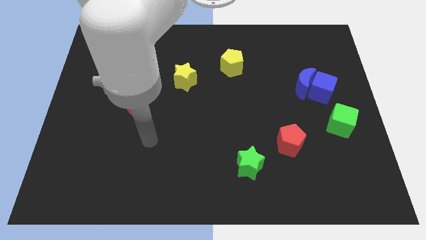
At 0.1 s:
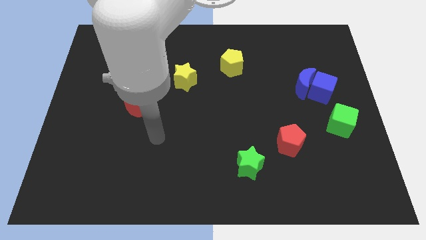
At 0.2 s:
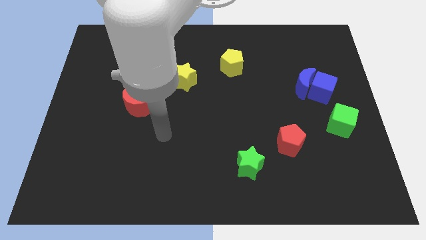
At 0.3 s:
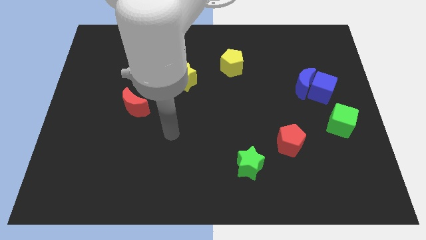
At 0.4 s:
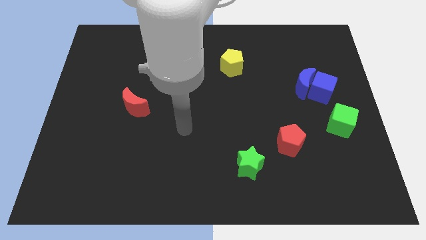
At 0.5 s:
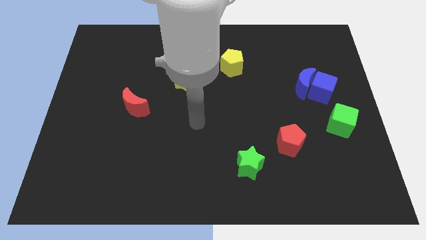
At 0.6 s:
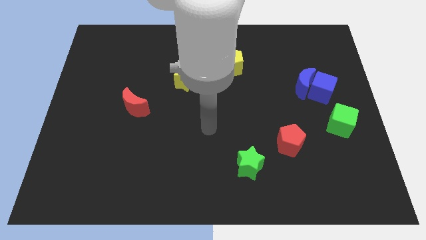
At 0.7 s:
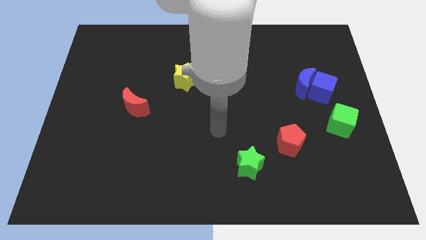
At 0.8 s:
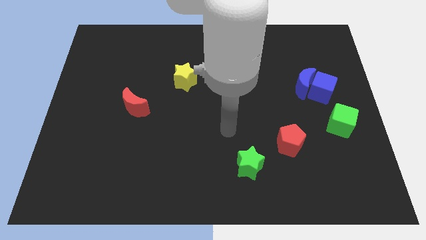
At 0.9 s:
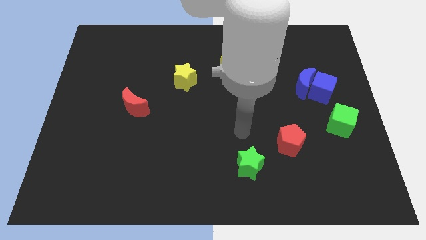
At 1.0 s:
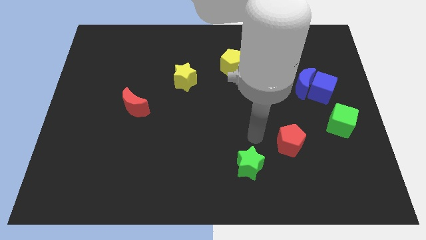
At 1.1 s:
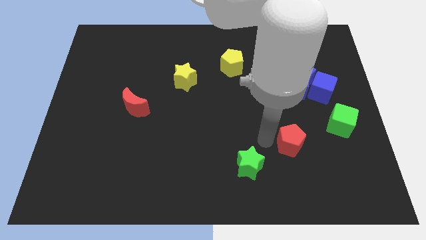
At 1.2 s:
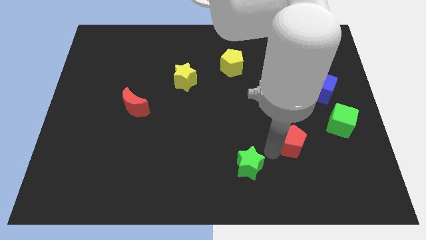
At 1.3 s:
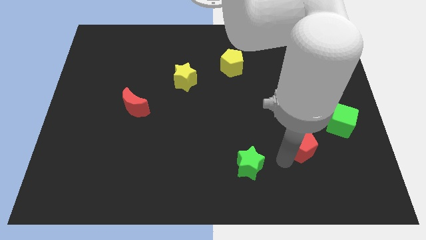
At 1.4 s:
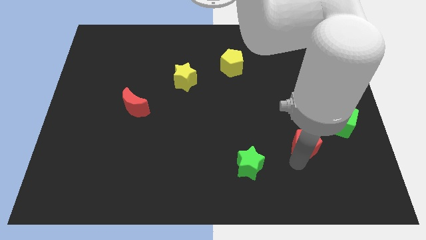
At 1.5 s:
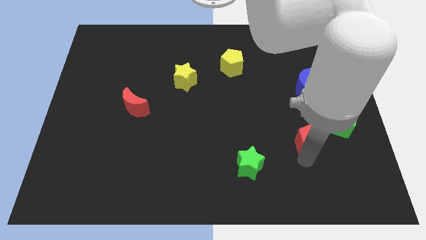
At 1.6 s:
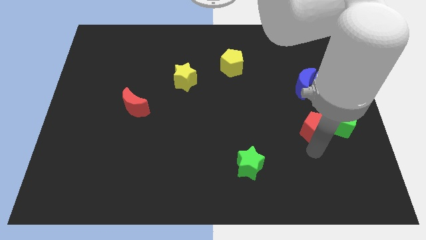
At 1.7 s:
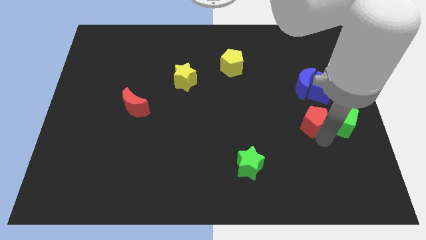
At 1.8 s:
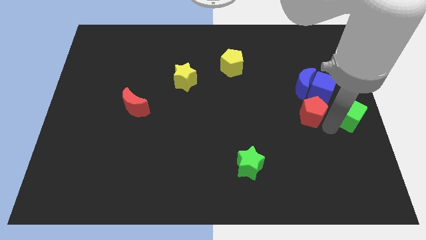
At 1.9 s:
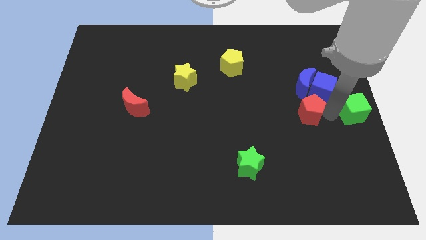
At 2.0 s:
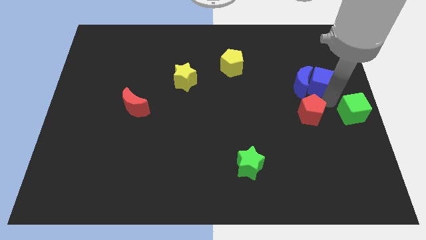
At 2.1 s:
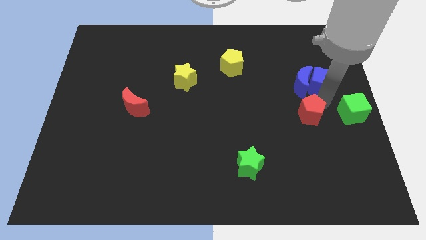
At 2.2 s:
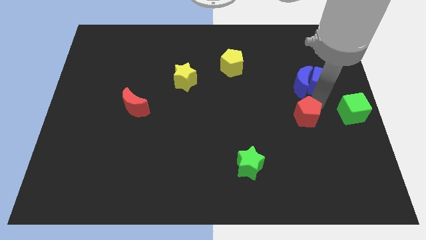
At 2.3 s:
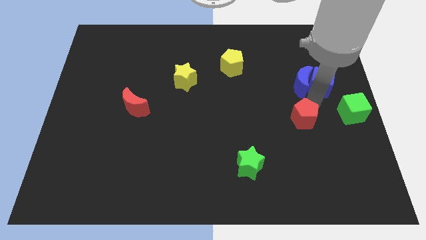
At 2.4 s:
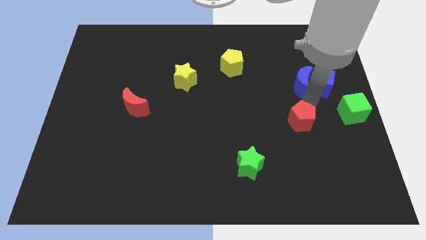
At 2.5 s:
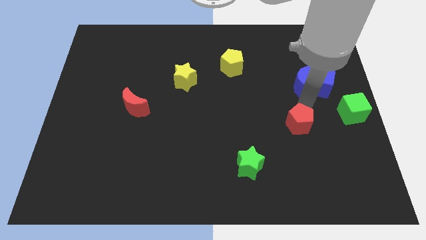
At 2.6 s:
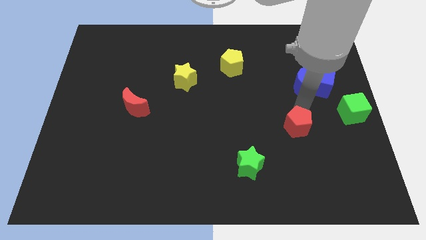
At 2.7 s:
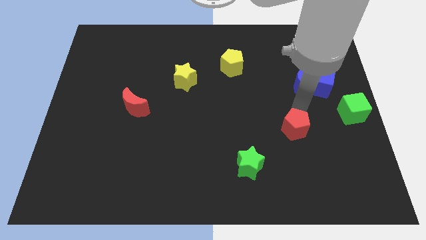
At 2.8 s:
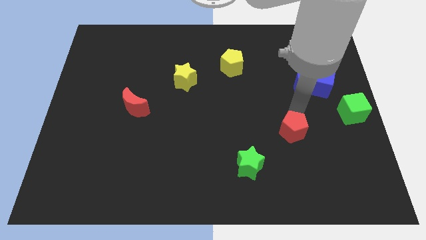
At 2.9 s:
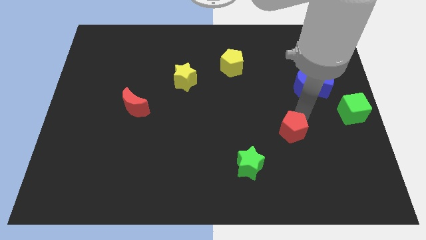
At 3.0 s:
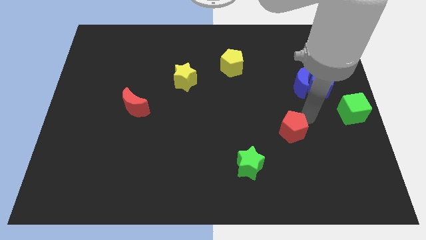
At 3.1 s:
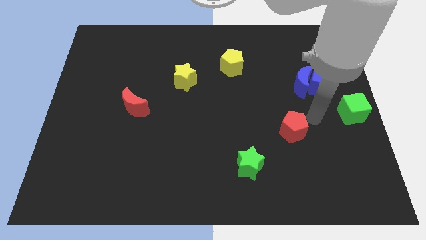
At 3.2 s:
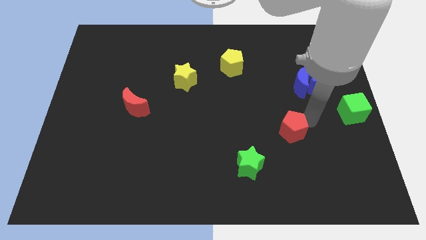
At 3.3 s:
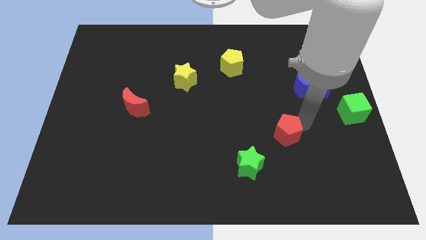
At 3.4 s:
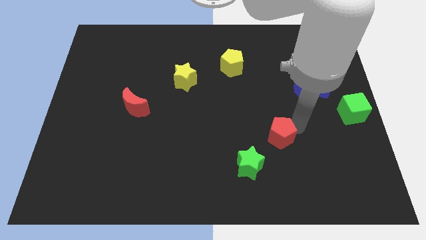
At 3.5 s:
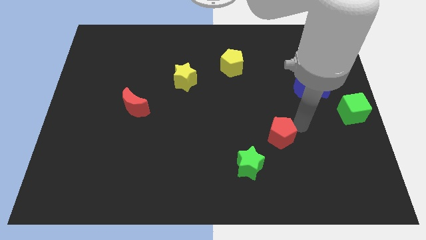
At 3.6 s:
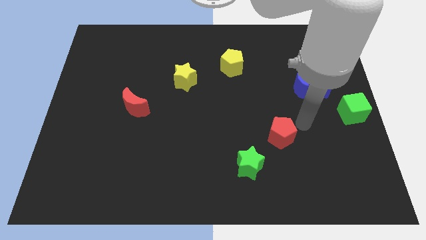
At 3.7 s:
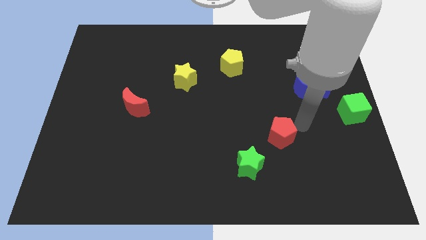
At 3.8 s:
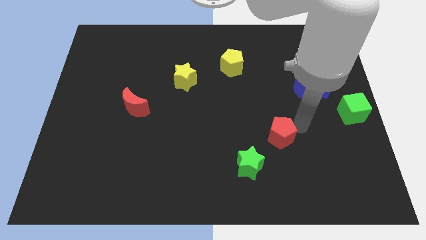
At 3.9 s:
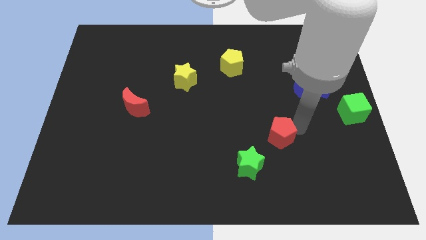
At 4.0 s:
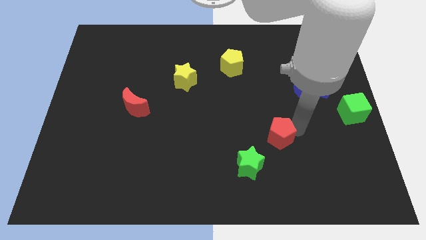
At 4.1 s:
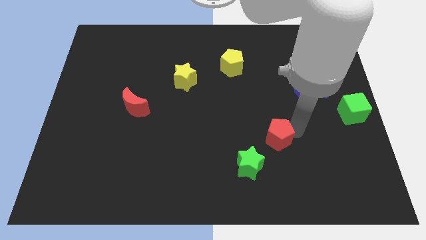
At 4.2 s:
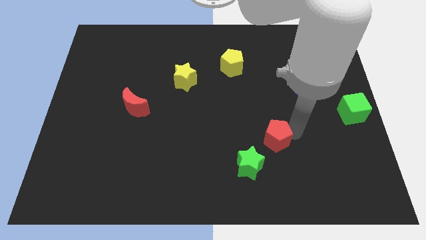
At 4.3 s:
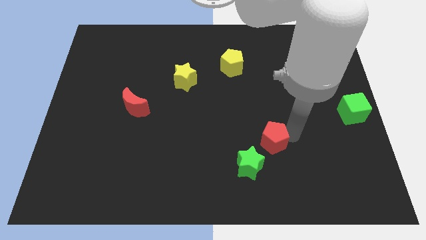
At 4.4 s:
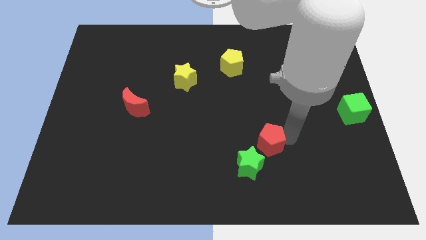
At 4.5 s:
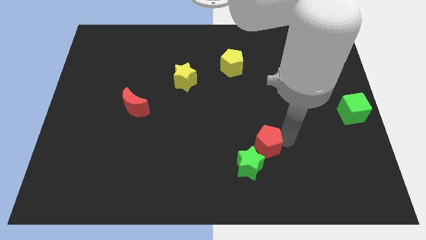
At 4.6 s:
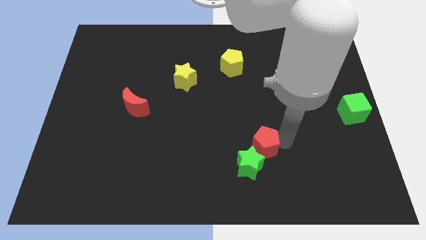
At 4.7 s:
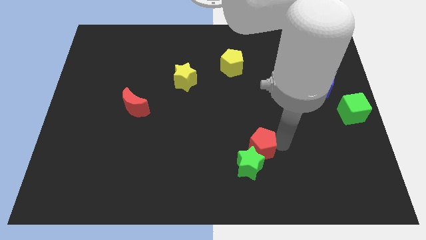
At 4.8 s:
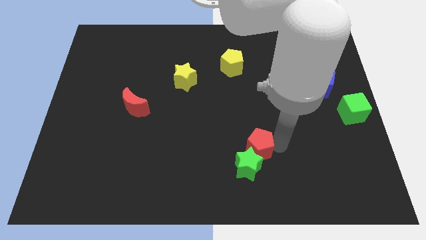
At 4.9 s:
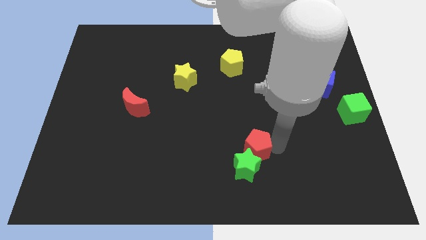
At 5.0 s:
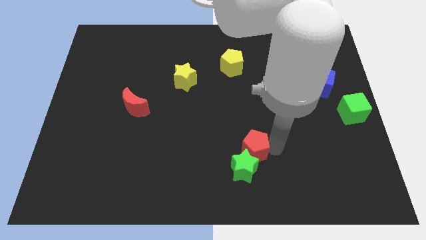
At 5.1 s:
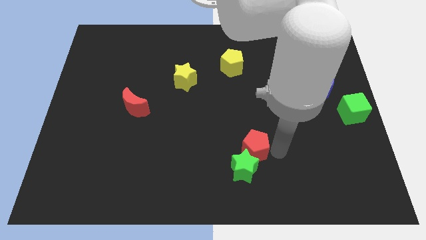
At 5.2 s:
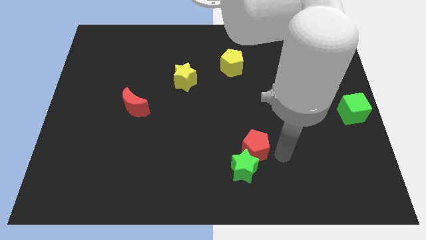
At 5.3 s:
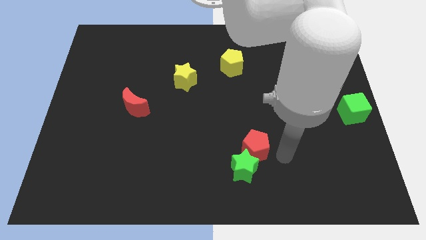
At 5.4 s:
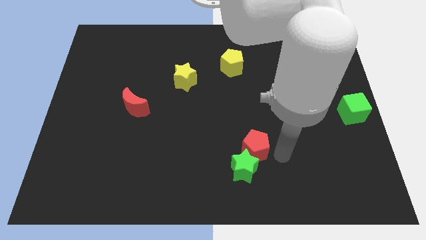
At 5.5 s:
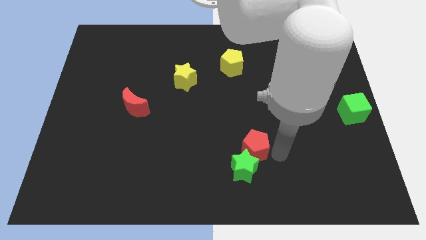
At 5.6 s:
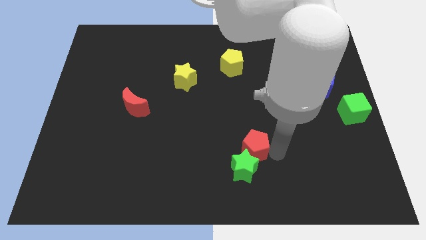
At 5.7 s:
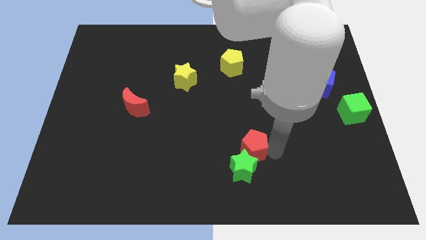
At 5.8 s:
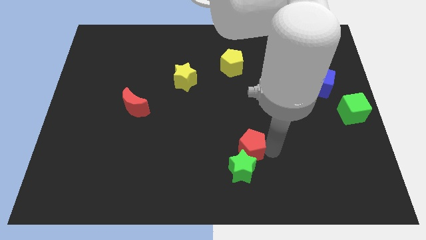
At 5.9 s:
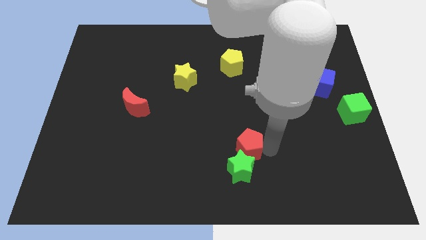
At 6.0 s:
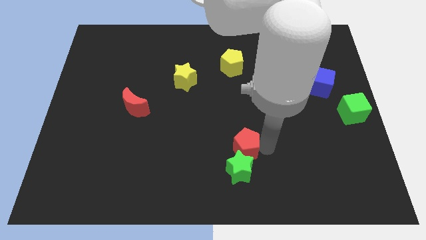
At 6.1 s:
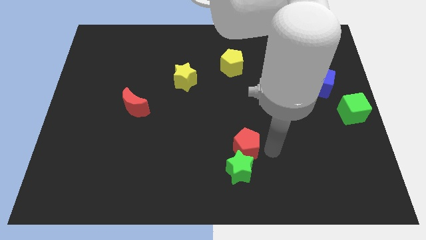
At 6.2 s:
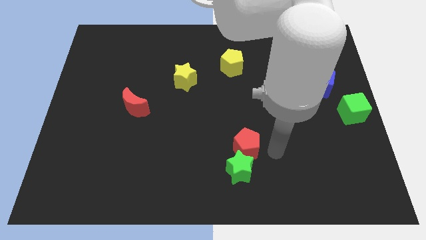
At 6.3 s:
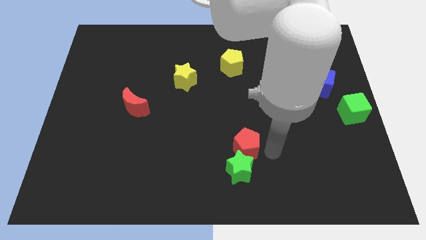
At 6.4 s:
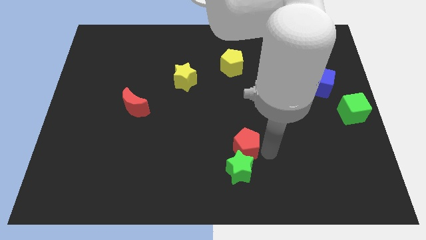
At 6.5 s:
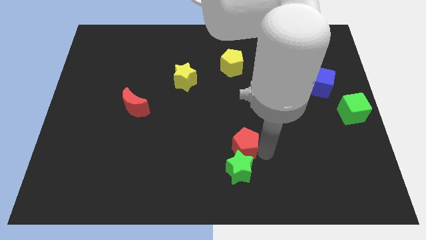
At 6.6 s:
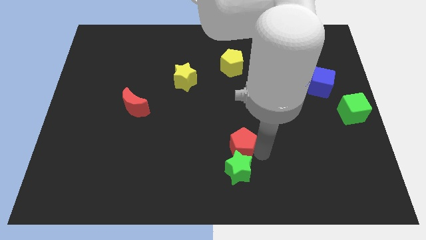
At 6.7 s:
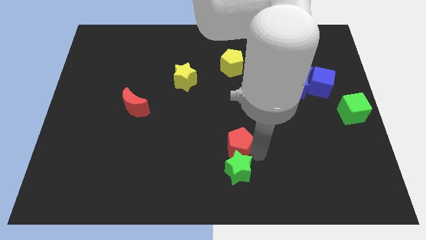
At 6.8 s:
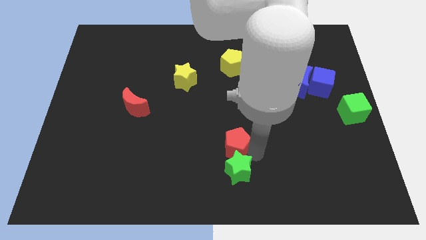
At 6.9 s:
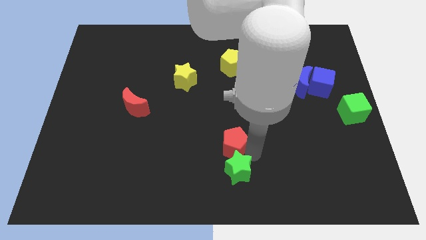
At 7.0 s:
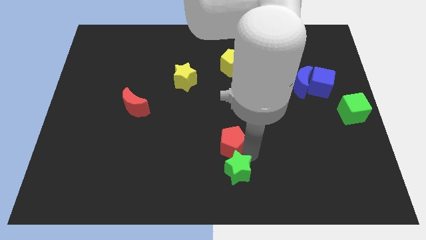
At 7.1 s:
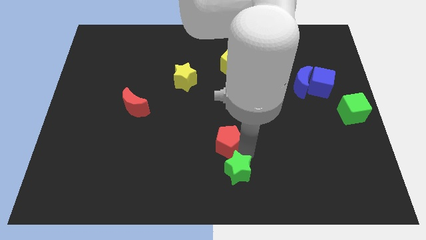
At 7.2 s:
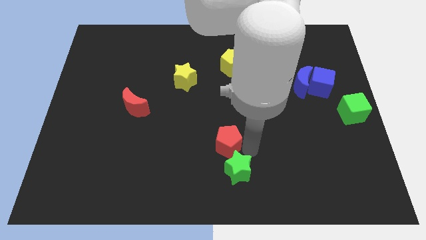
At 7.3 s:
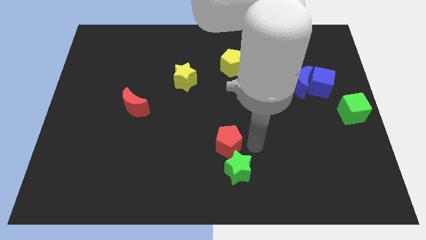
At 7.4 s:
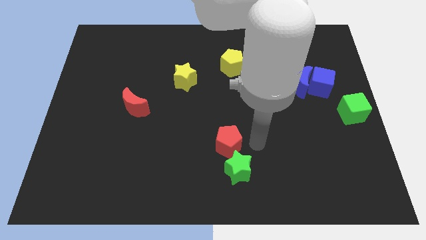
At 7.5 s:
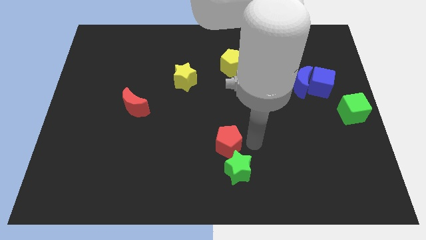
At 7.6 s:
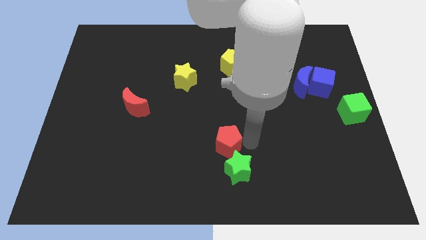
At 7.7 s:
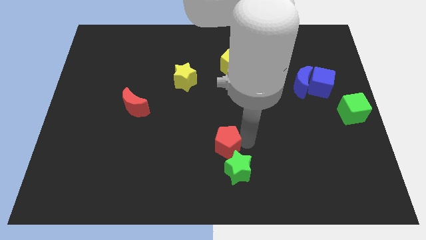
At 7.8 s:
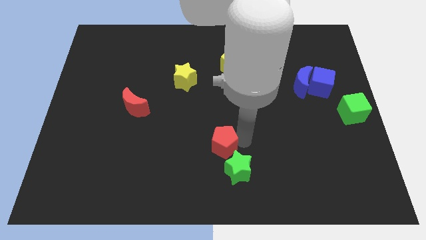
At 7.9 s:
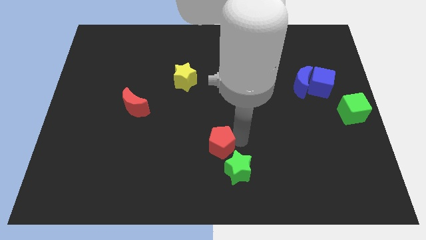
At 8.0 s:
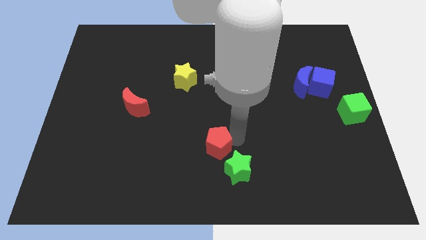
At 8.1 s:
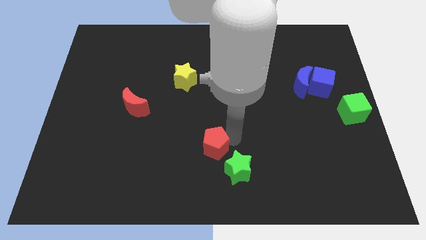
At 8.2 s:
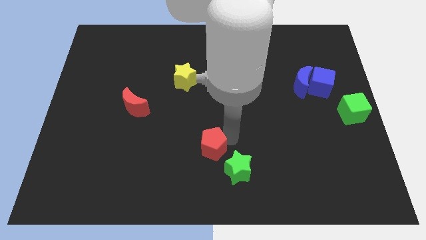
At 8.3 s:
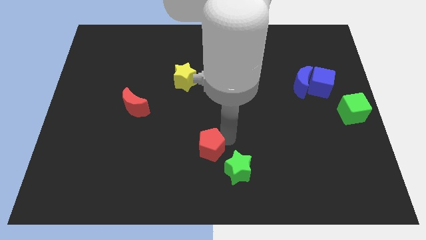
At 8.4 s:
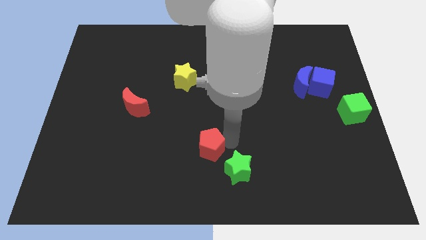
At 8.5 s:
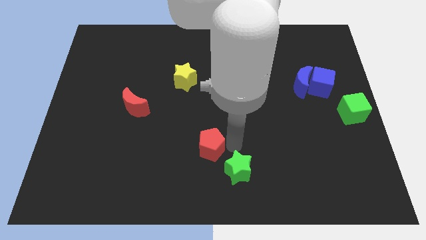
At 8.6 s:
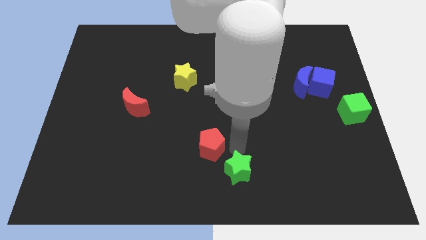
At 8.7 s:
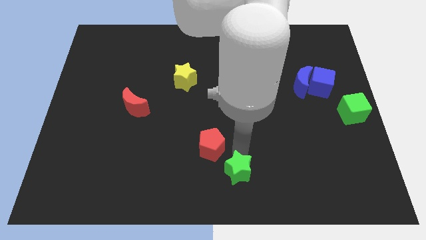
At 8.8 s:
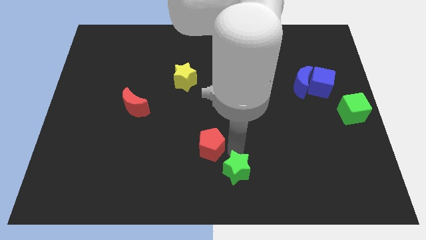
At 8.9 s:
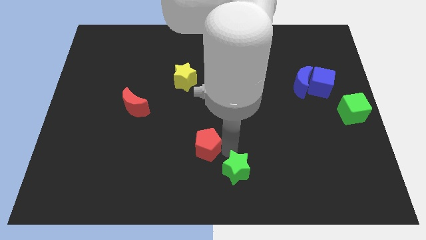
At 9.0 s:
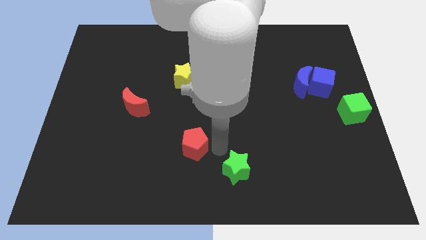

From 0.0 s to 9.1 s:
slide the red pentagon left
